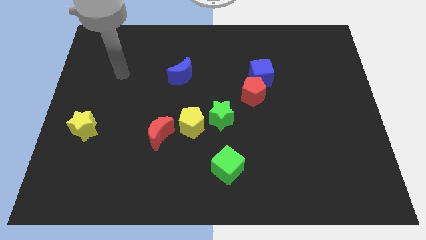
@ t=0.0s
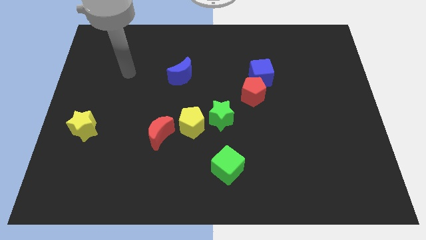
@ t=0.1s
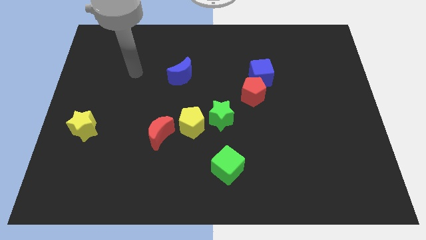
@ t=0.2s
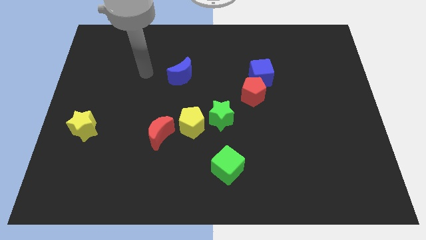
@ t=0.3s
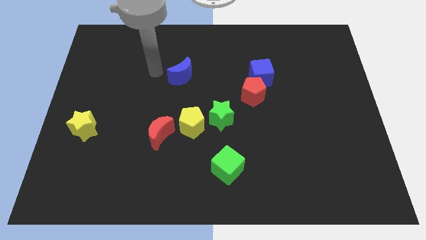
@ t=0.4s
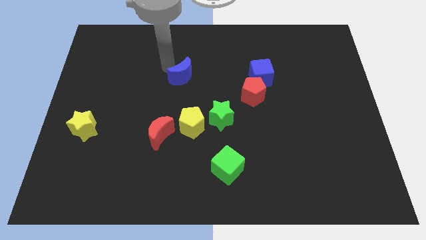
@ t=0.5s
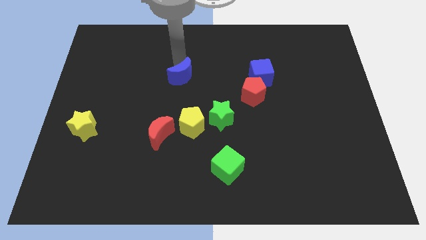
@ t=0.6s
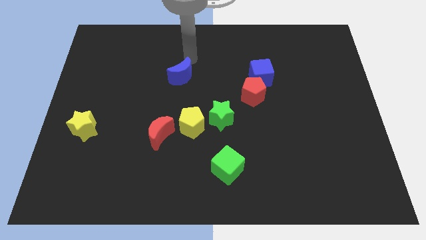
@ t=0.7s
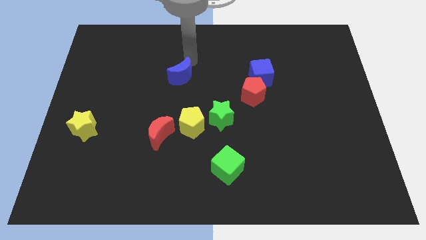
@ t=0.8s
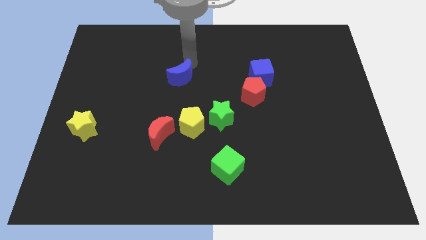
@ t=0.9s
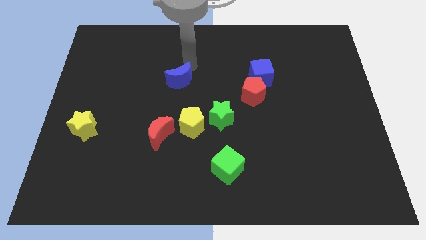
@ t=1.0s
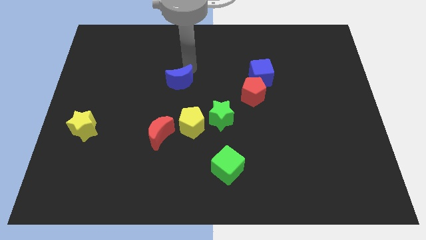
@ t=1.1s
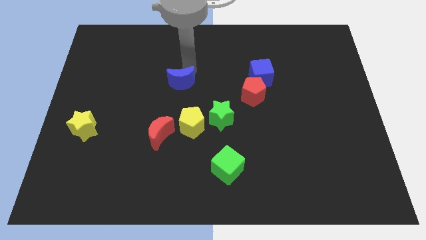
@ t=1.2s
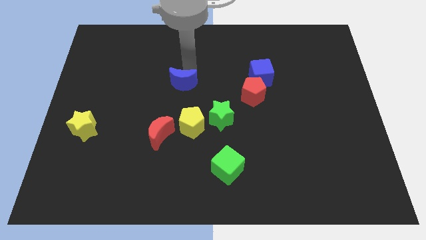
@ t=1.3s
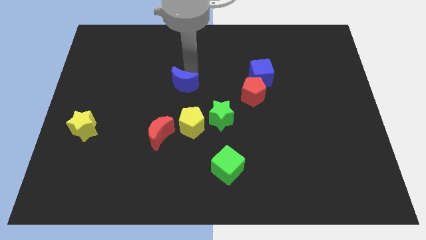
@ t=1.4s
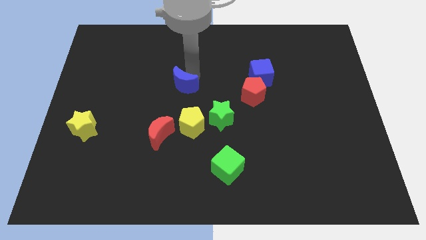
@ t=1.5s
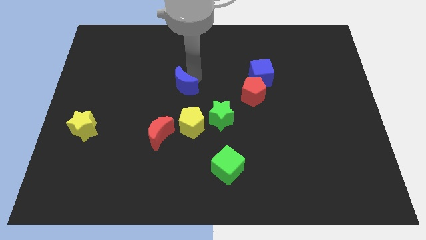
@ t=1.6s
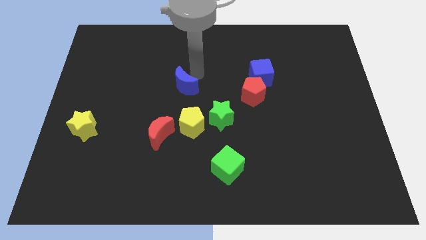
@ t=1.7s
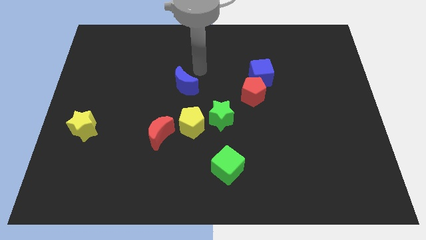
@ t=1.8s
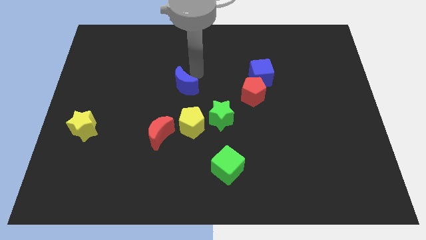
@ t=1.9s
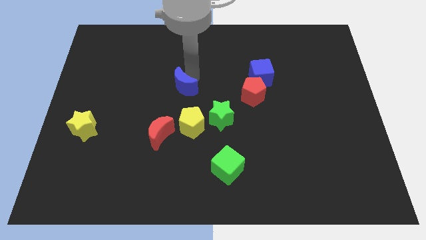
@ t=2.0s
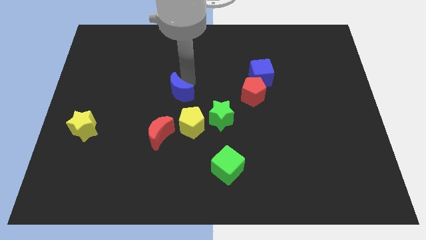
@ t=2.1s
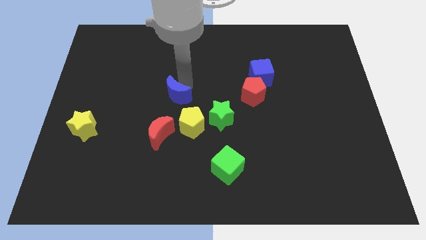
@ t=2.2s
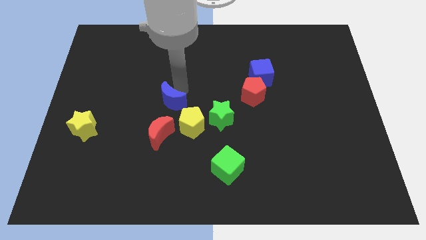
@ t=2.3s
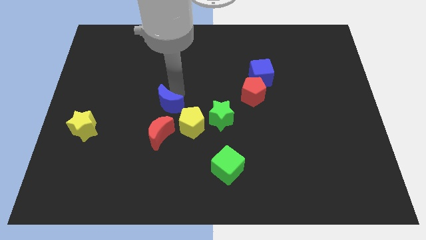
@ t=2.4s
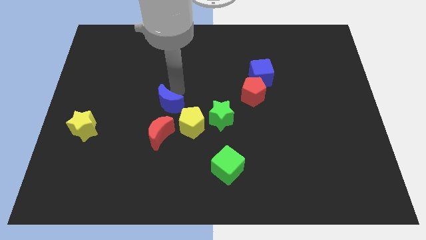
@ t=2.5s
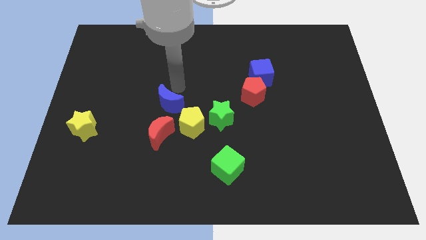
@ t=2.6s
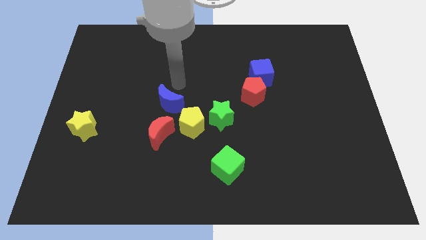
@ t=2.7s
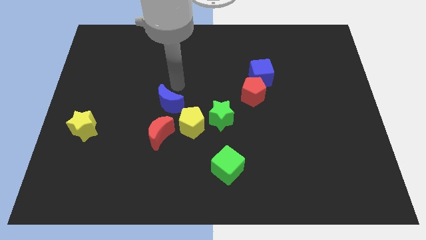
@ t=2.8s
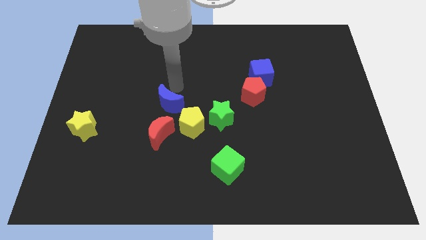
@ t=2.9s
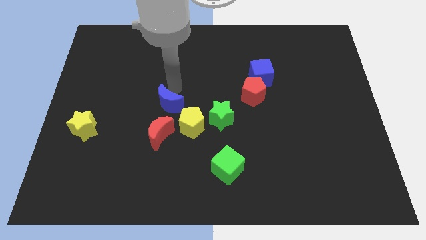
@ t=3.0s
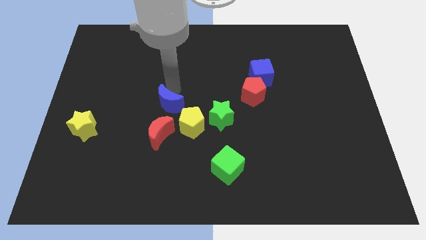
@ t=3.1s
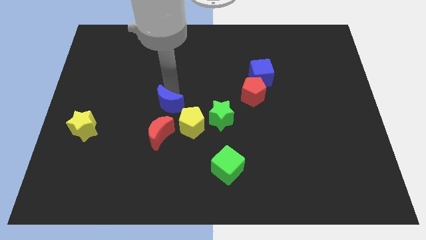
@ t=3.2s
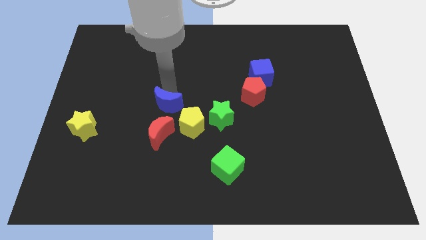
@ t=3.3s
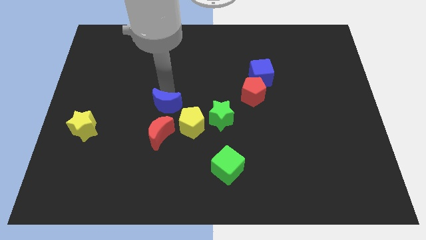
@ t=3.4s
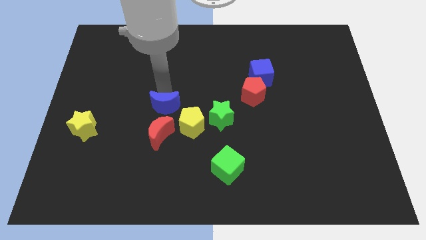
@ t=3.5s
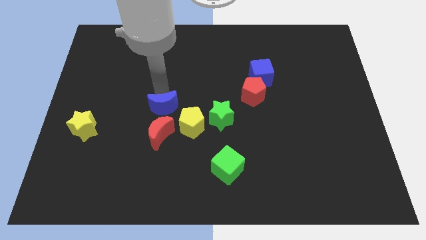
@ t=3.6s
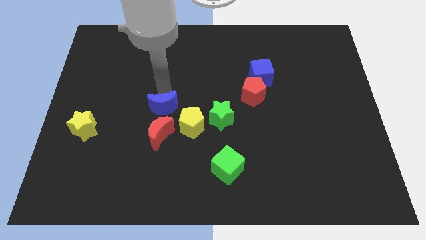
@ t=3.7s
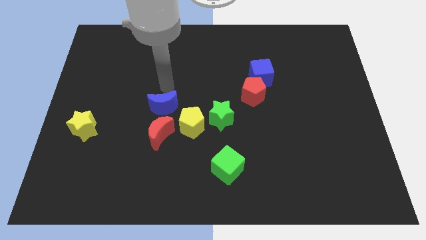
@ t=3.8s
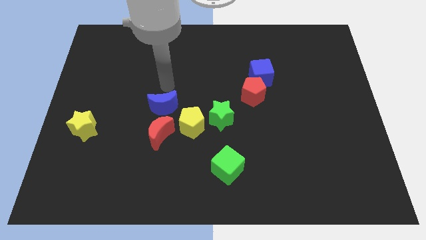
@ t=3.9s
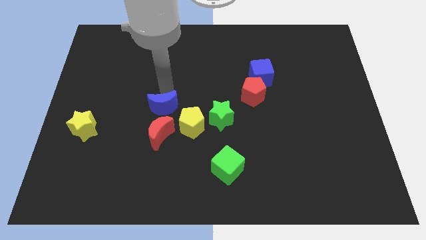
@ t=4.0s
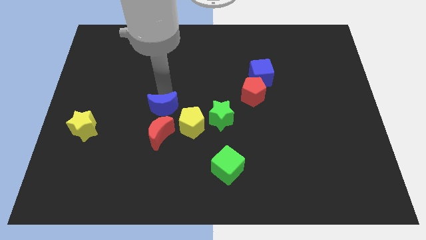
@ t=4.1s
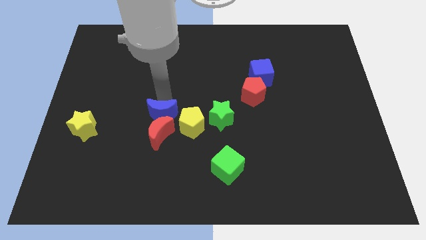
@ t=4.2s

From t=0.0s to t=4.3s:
put the blue moon close to the red moon

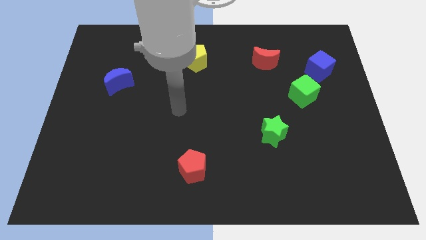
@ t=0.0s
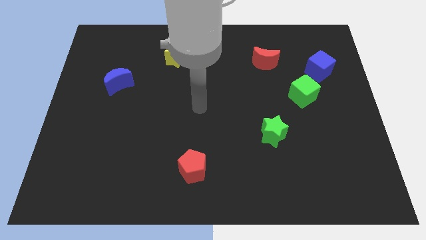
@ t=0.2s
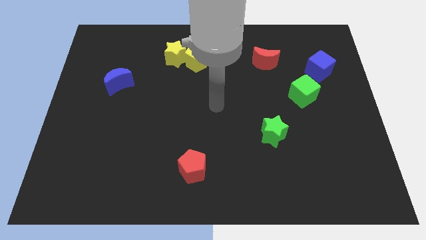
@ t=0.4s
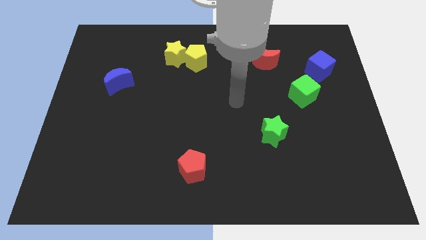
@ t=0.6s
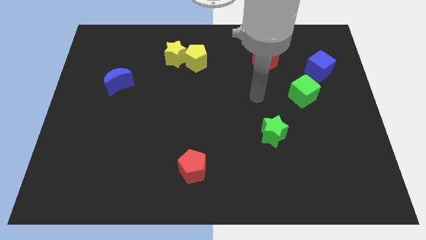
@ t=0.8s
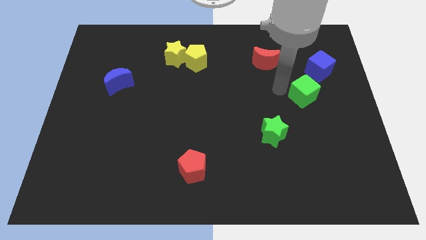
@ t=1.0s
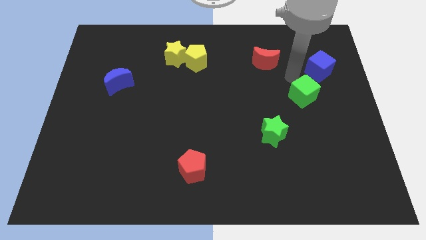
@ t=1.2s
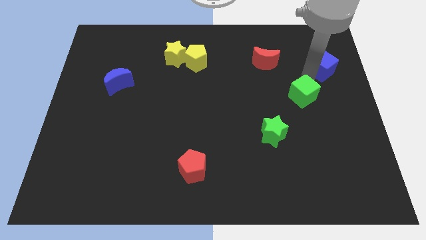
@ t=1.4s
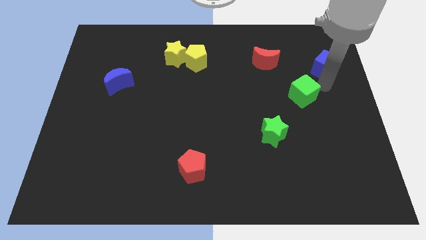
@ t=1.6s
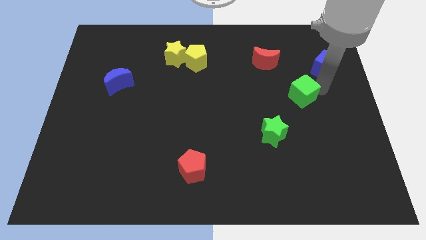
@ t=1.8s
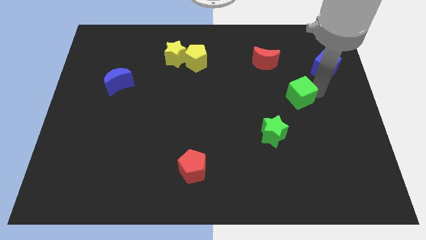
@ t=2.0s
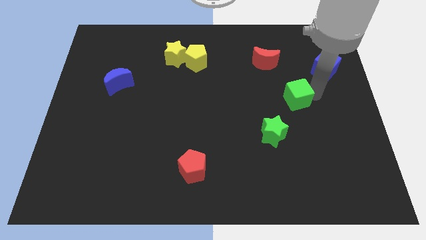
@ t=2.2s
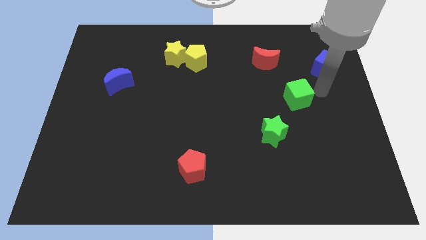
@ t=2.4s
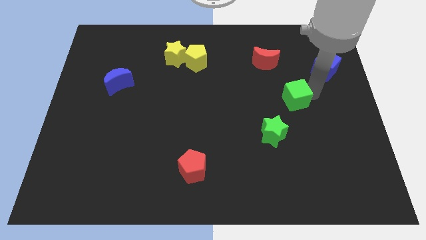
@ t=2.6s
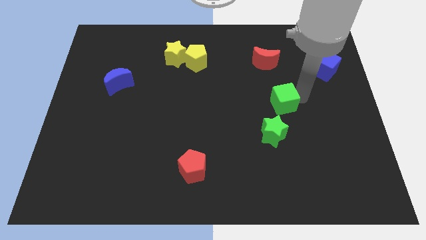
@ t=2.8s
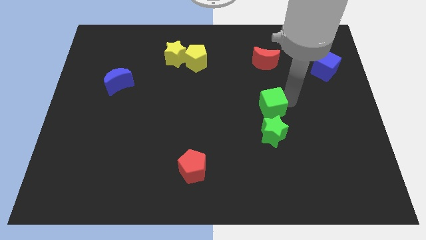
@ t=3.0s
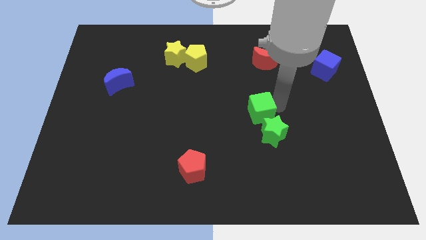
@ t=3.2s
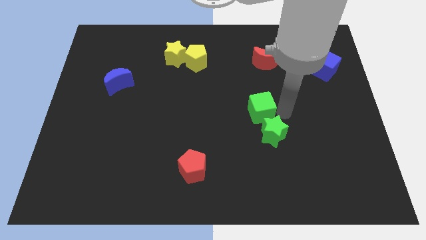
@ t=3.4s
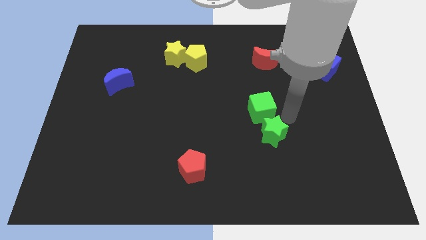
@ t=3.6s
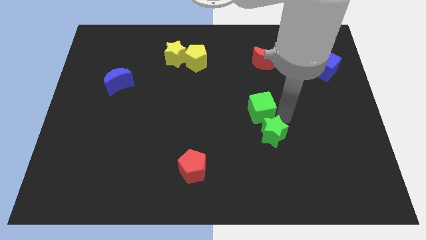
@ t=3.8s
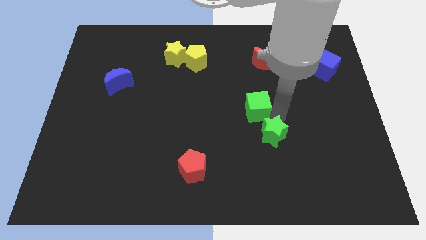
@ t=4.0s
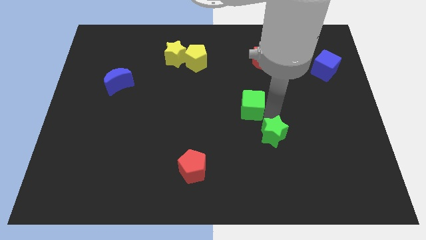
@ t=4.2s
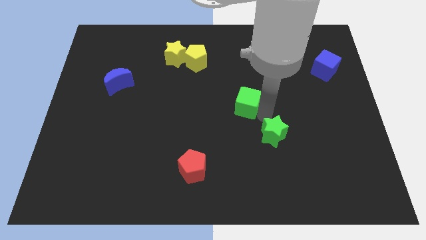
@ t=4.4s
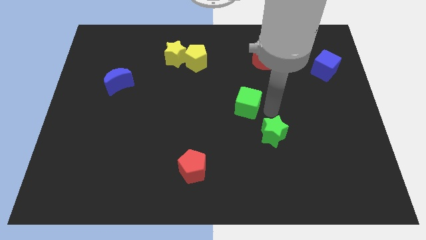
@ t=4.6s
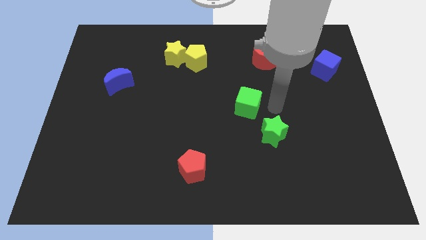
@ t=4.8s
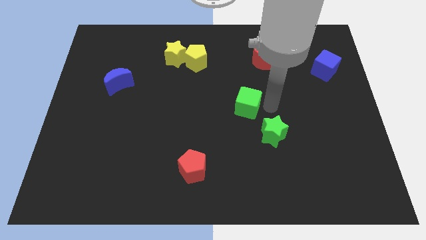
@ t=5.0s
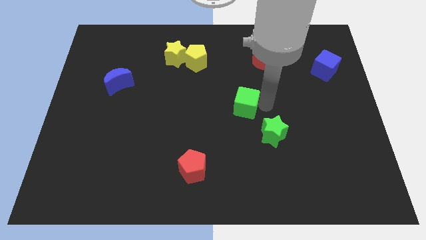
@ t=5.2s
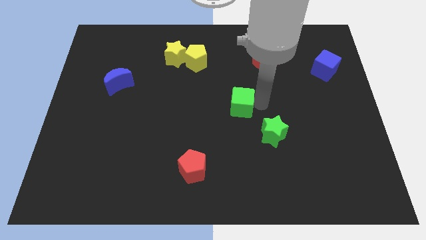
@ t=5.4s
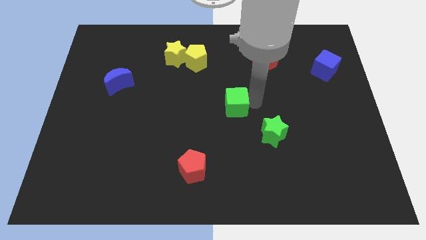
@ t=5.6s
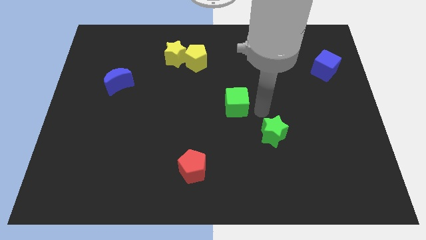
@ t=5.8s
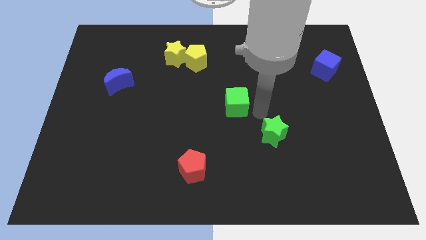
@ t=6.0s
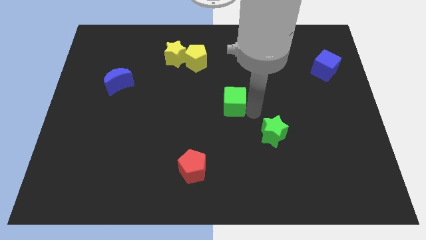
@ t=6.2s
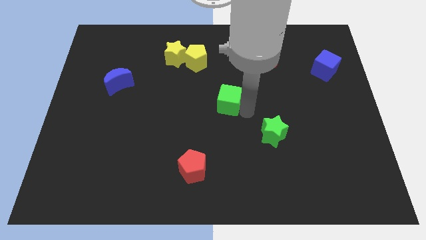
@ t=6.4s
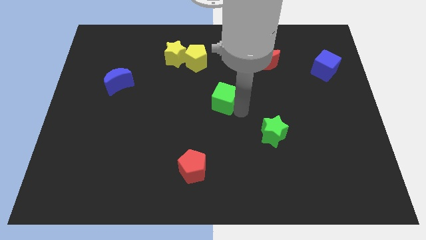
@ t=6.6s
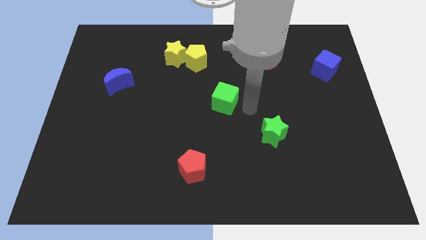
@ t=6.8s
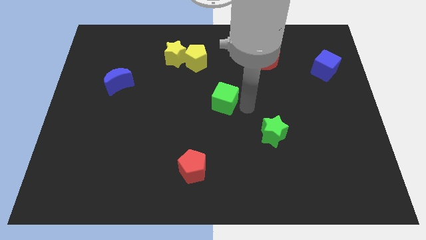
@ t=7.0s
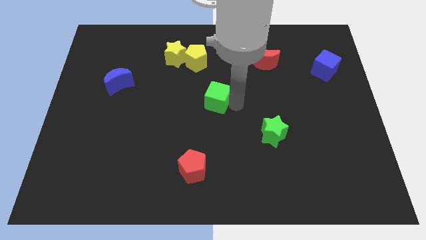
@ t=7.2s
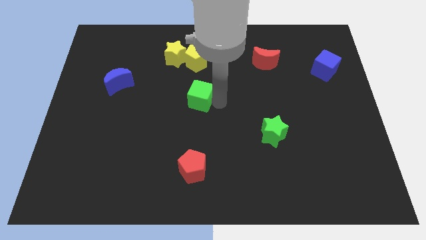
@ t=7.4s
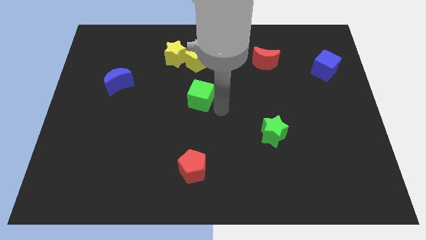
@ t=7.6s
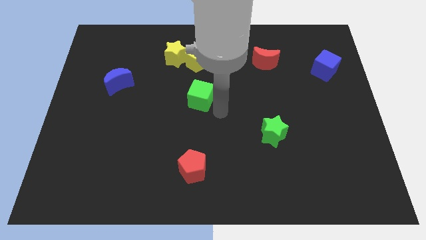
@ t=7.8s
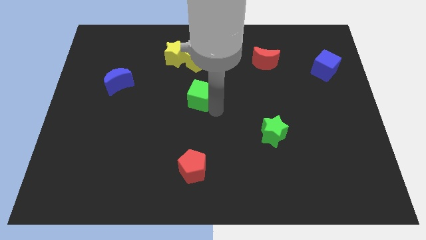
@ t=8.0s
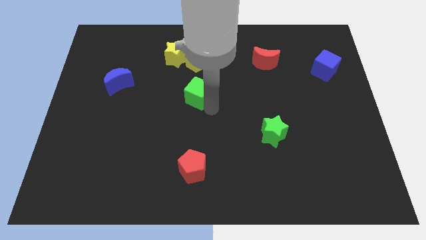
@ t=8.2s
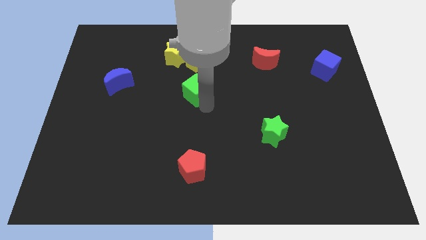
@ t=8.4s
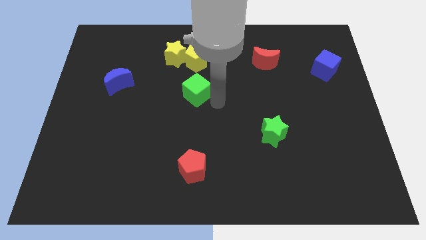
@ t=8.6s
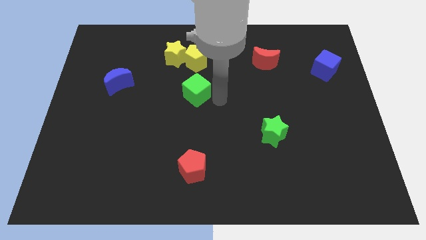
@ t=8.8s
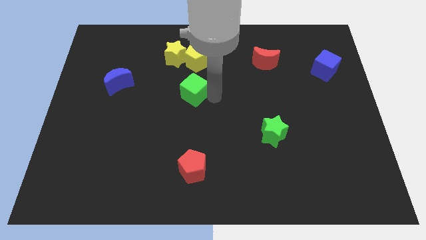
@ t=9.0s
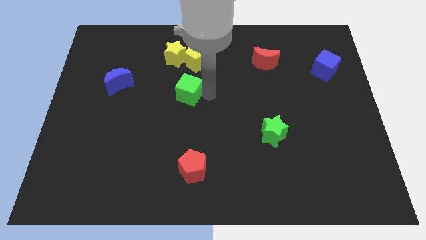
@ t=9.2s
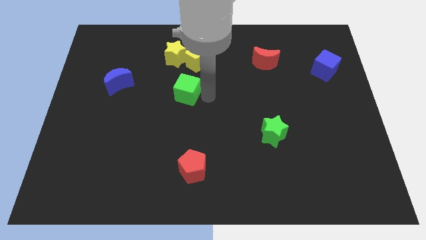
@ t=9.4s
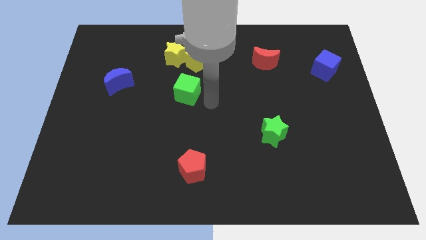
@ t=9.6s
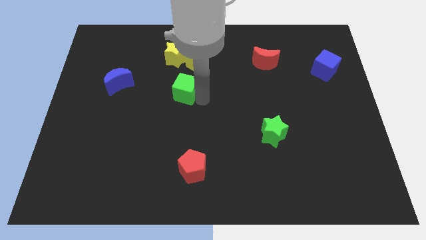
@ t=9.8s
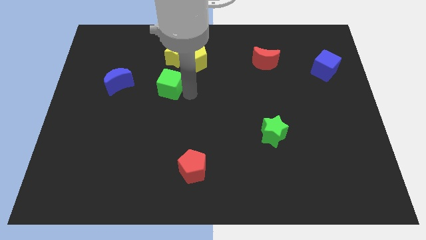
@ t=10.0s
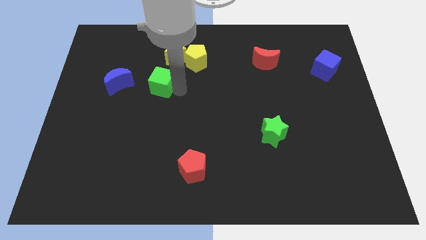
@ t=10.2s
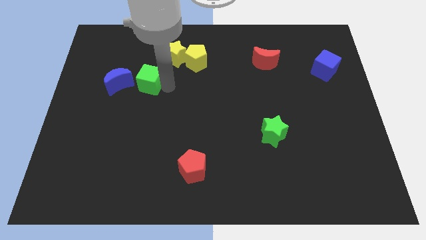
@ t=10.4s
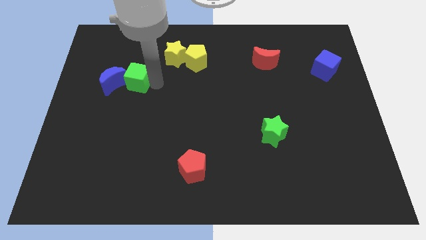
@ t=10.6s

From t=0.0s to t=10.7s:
slide the green cube towards the blue moon
